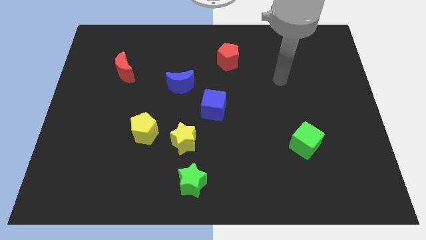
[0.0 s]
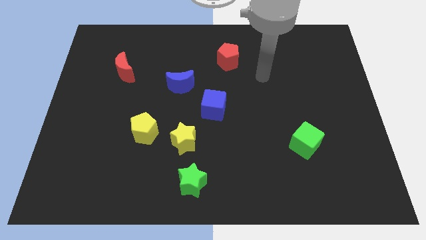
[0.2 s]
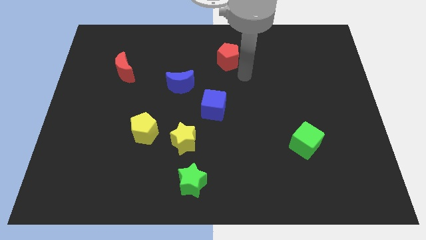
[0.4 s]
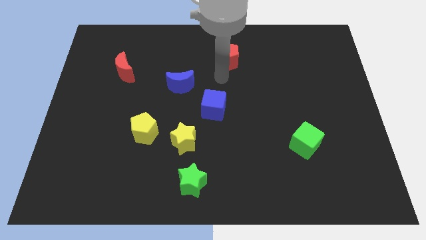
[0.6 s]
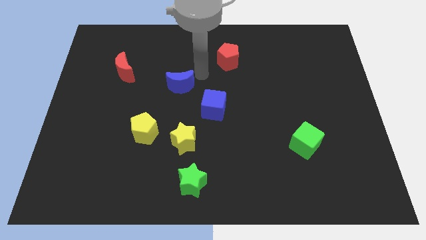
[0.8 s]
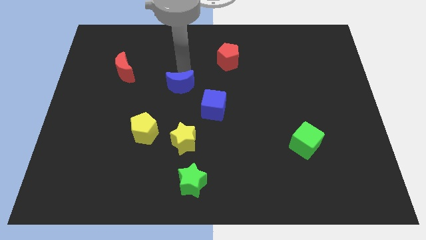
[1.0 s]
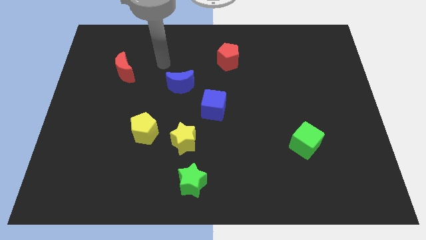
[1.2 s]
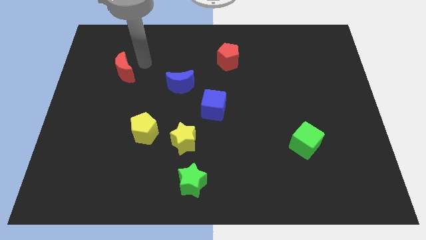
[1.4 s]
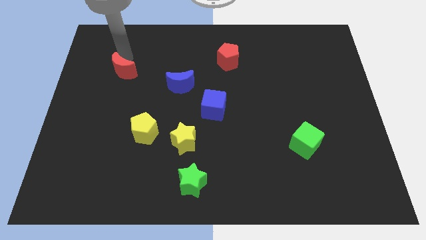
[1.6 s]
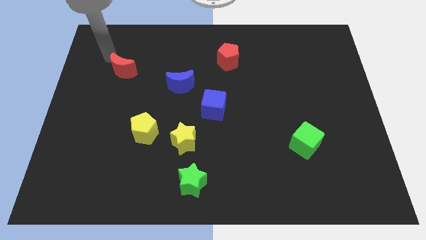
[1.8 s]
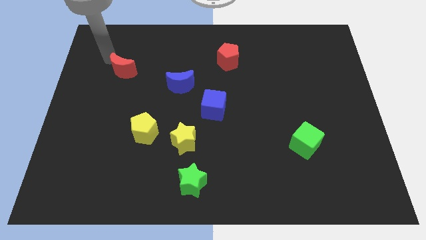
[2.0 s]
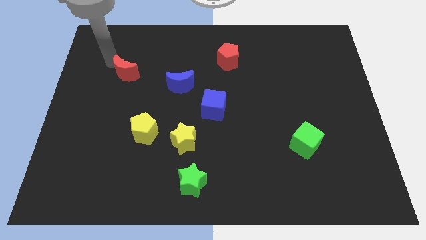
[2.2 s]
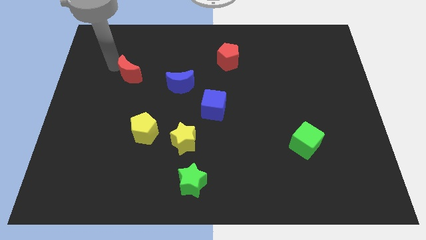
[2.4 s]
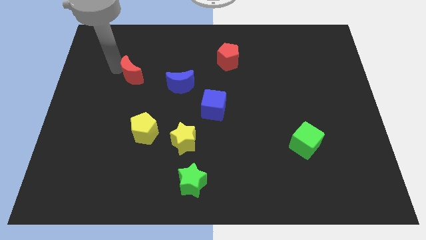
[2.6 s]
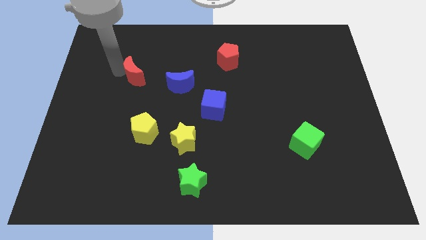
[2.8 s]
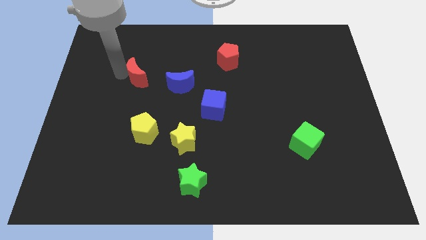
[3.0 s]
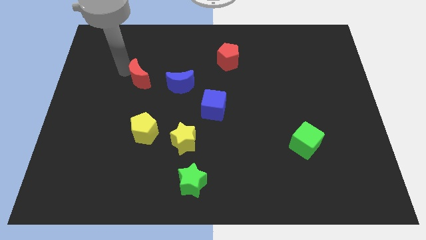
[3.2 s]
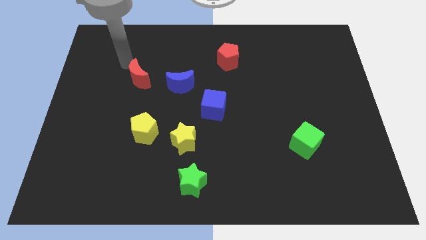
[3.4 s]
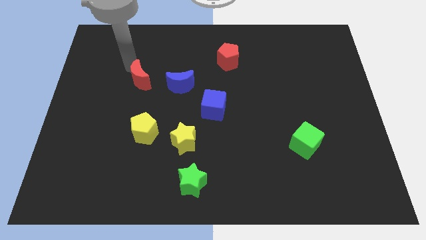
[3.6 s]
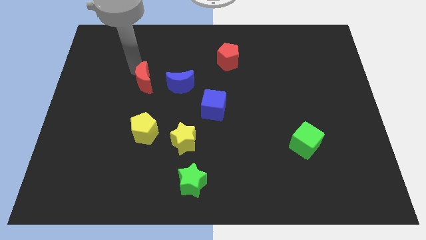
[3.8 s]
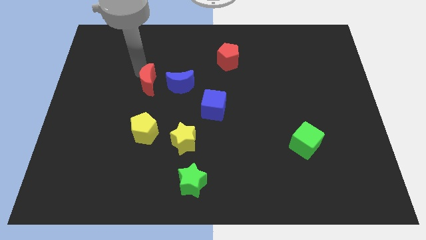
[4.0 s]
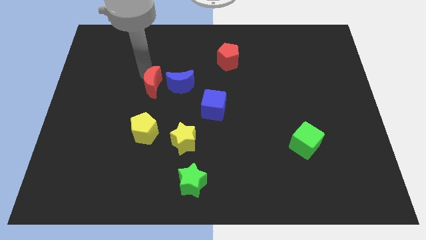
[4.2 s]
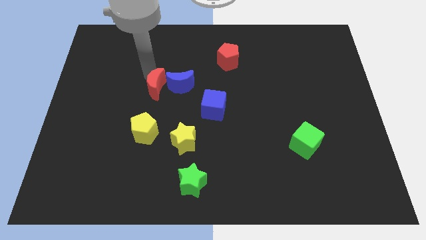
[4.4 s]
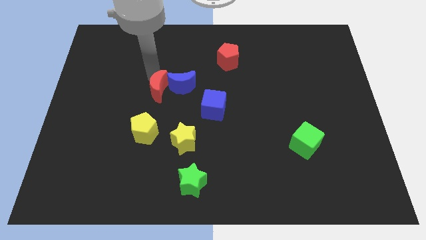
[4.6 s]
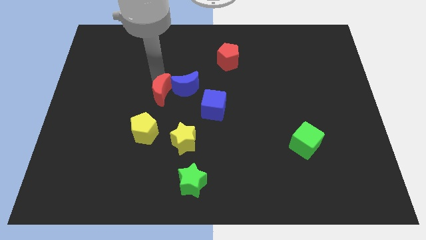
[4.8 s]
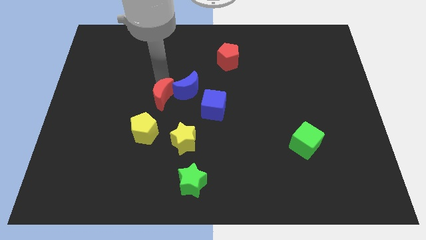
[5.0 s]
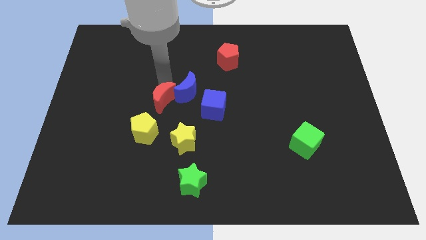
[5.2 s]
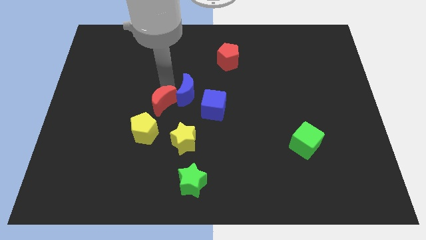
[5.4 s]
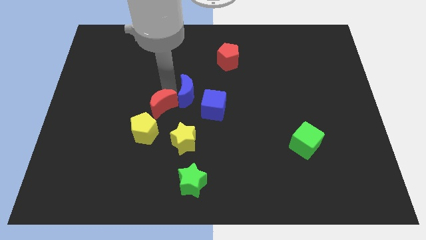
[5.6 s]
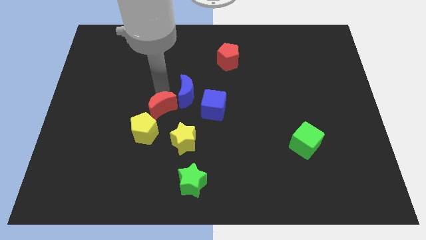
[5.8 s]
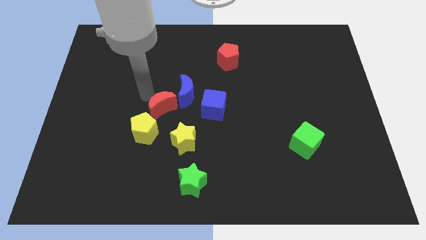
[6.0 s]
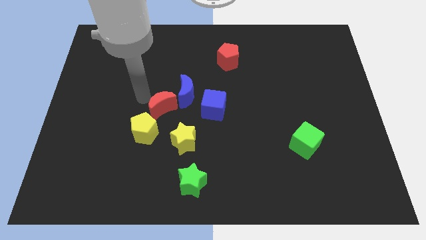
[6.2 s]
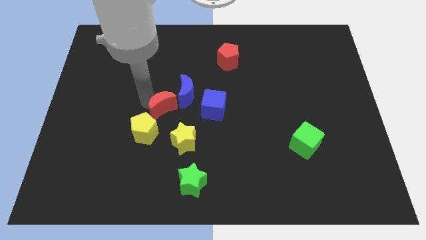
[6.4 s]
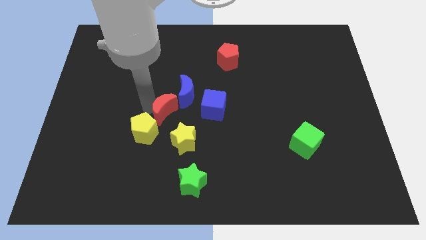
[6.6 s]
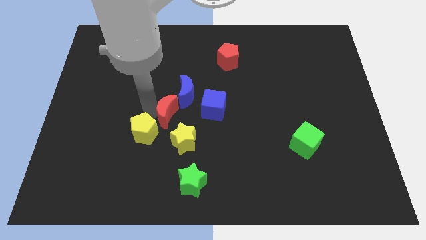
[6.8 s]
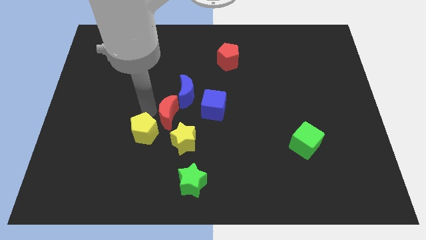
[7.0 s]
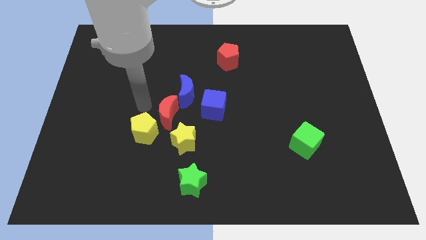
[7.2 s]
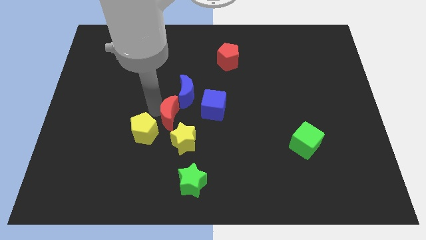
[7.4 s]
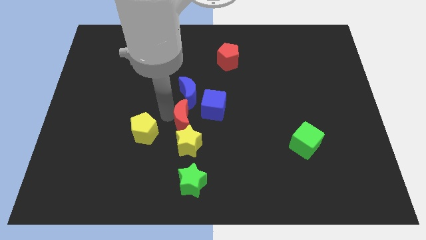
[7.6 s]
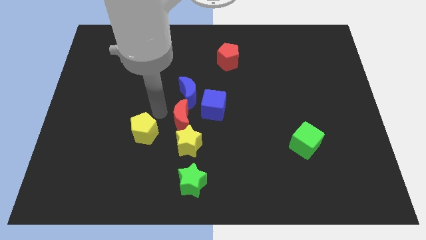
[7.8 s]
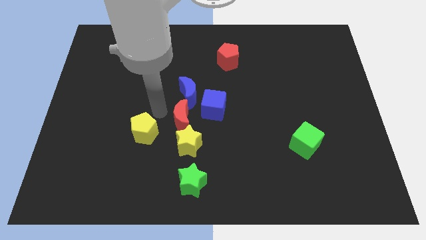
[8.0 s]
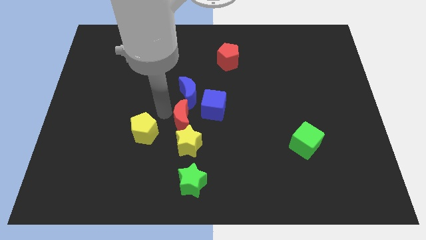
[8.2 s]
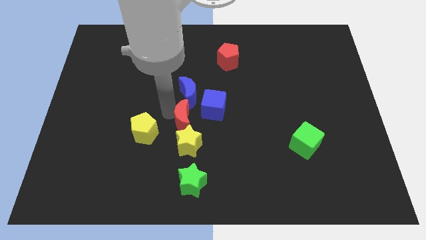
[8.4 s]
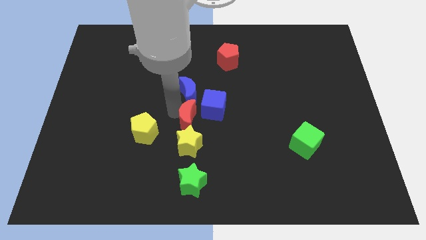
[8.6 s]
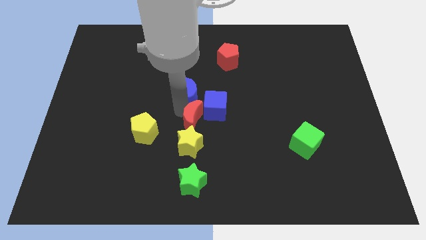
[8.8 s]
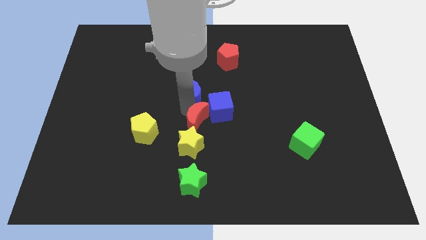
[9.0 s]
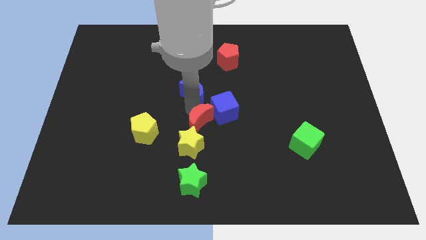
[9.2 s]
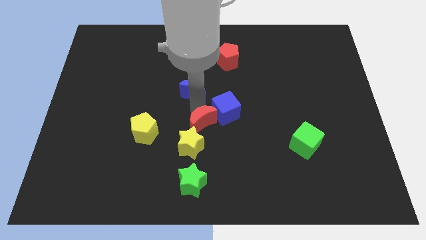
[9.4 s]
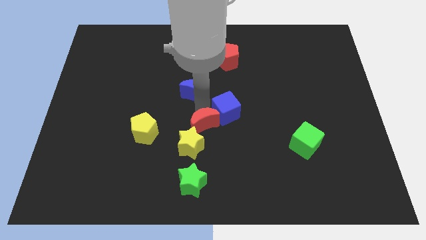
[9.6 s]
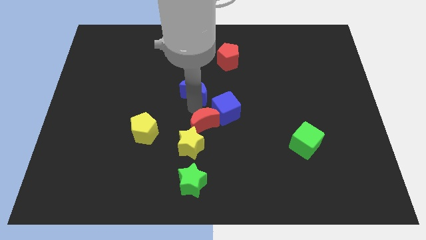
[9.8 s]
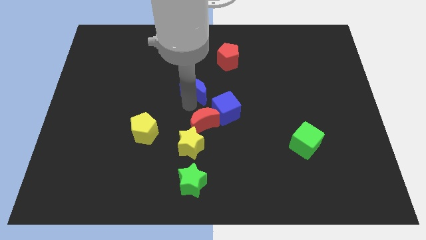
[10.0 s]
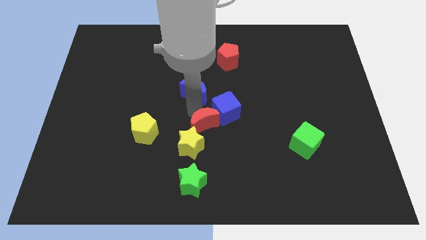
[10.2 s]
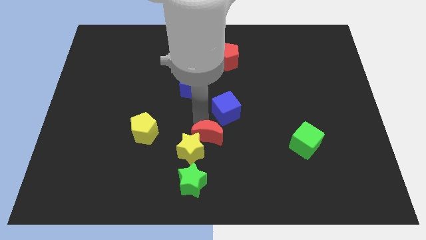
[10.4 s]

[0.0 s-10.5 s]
slide the red moon to the right side of the yellow star

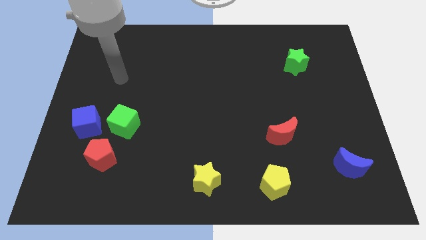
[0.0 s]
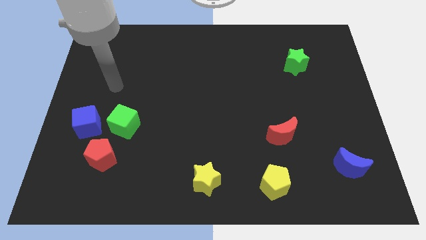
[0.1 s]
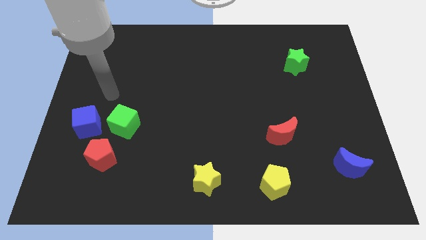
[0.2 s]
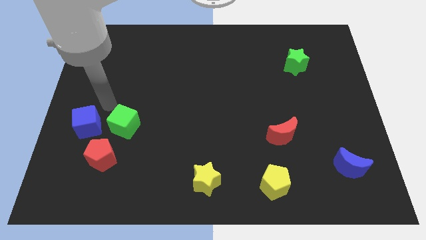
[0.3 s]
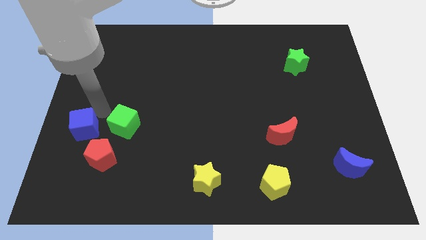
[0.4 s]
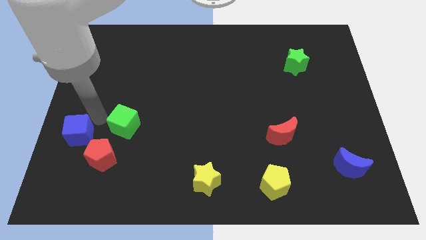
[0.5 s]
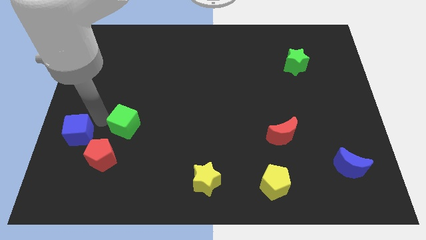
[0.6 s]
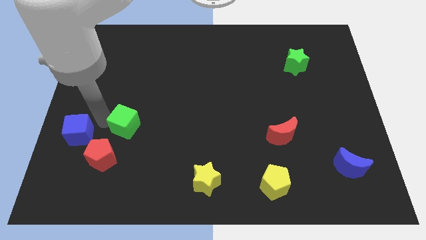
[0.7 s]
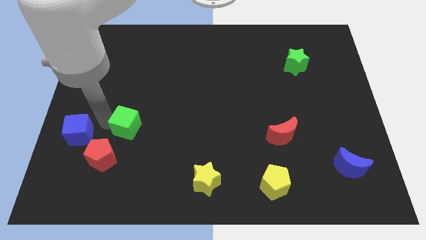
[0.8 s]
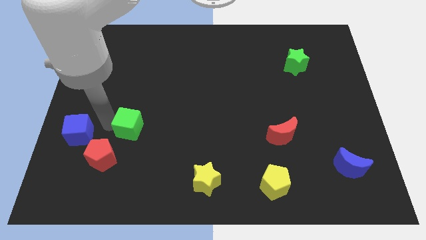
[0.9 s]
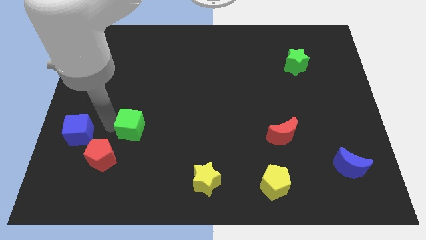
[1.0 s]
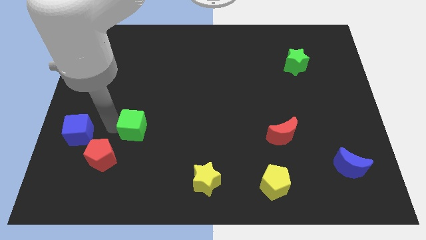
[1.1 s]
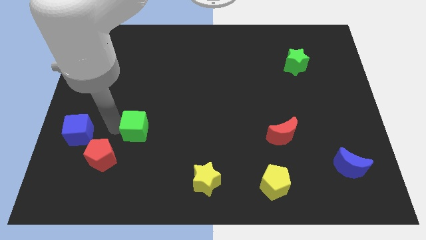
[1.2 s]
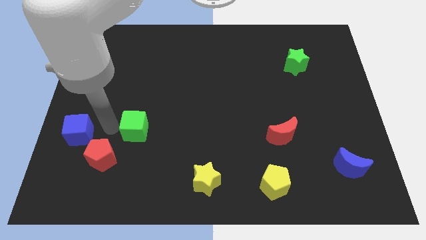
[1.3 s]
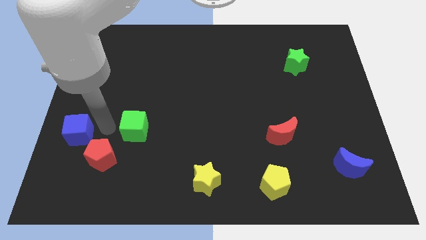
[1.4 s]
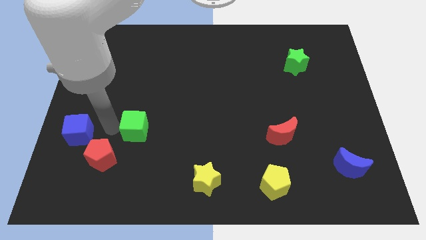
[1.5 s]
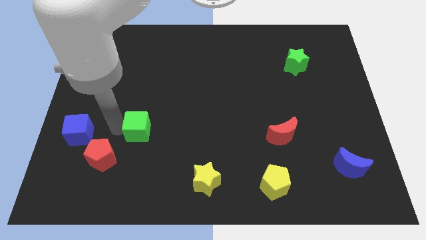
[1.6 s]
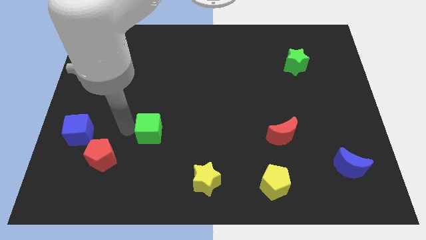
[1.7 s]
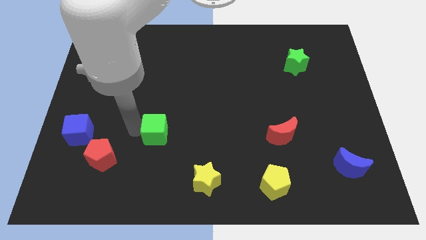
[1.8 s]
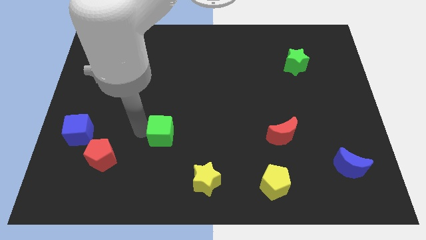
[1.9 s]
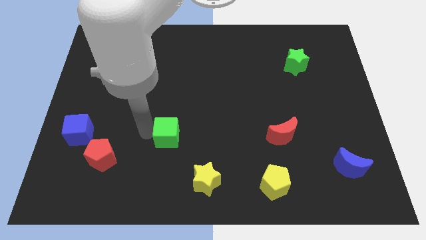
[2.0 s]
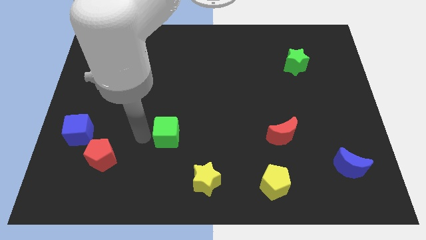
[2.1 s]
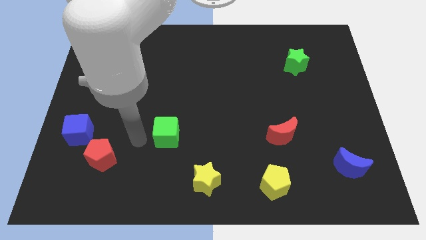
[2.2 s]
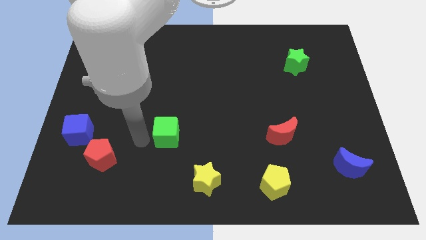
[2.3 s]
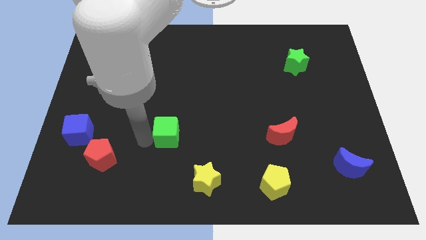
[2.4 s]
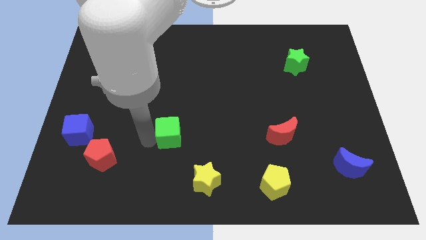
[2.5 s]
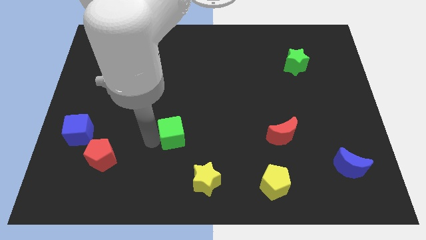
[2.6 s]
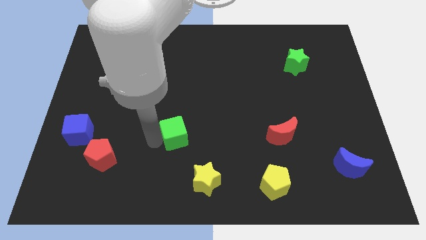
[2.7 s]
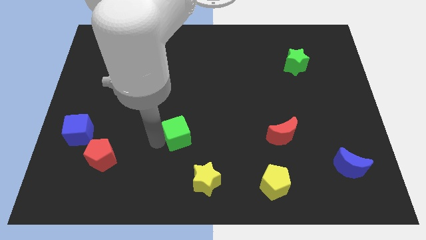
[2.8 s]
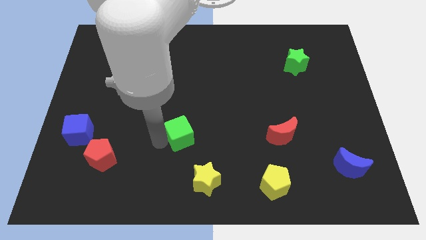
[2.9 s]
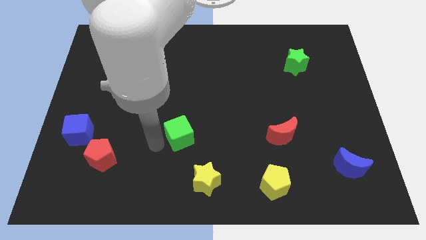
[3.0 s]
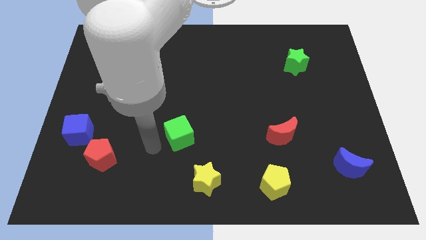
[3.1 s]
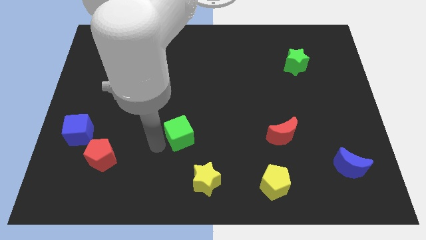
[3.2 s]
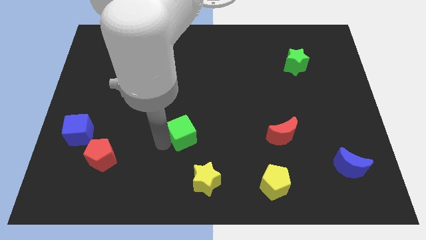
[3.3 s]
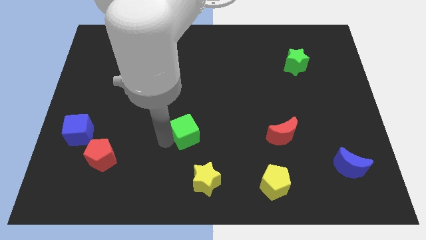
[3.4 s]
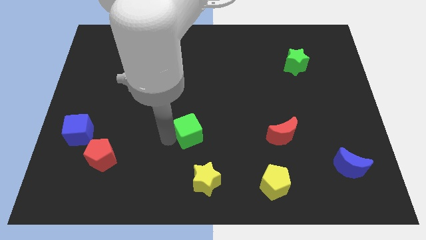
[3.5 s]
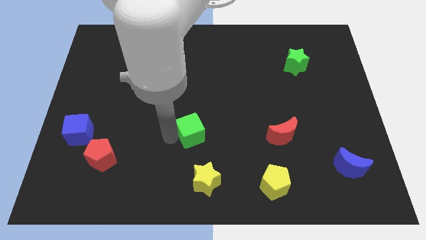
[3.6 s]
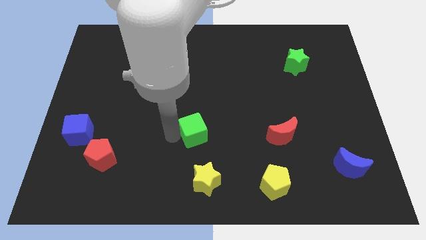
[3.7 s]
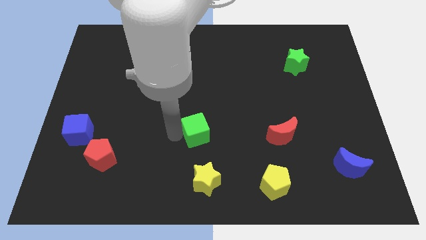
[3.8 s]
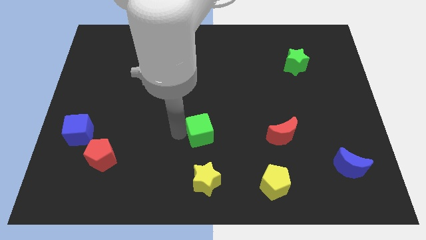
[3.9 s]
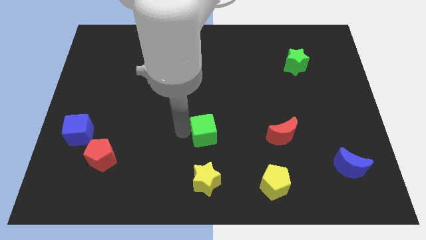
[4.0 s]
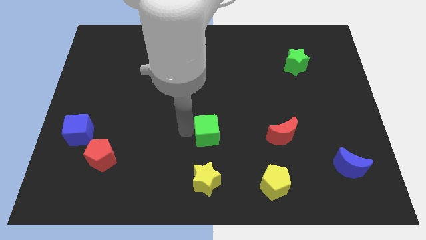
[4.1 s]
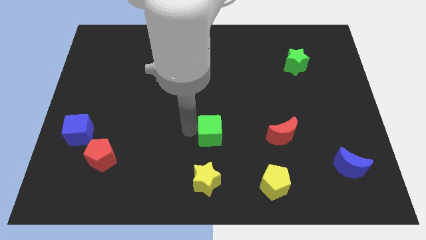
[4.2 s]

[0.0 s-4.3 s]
push the green cube left of the red moon
